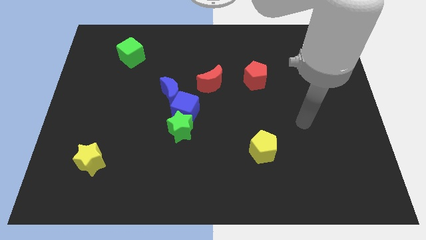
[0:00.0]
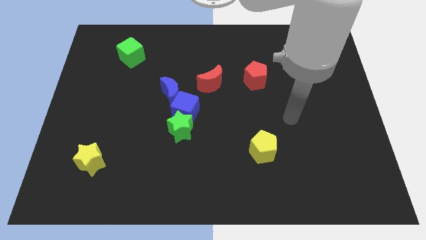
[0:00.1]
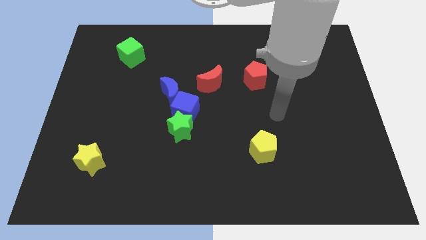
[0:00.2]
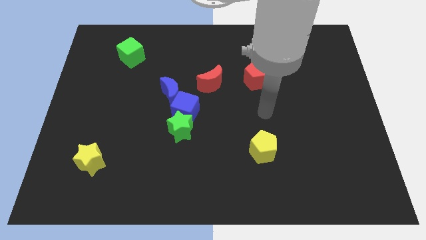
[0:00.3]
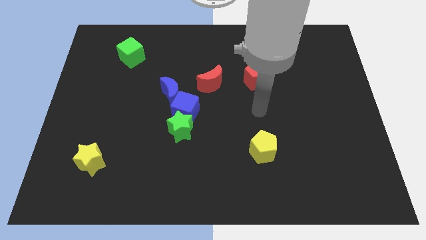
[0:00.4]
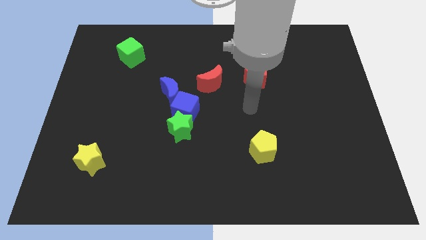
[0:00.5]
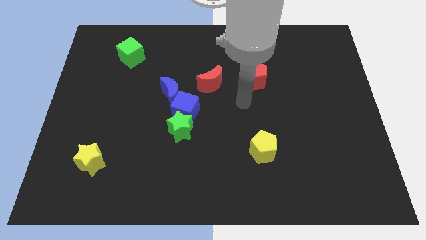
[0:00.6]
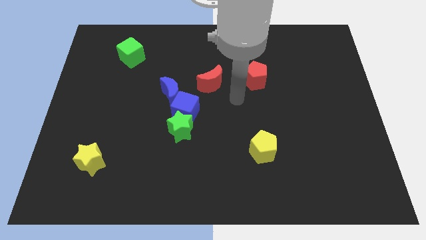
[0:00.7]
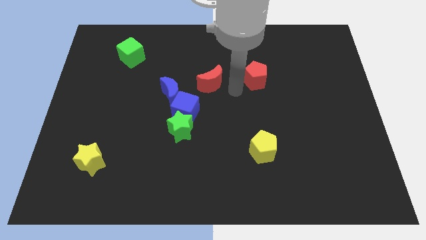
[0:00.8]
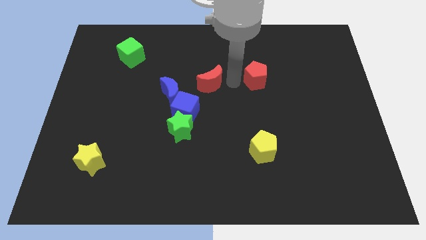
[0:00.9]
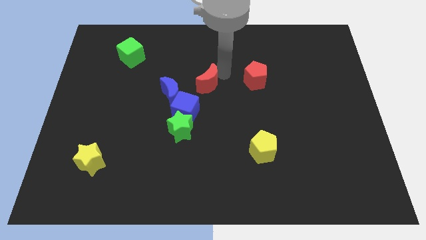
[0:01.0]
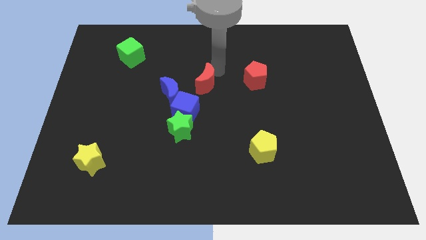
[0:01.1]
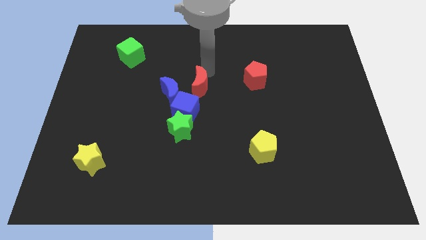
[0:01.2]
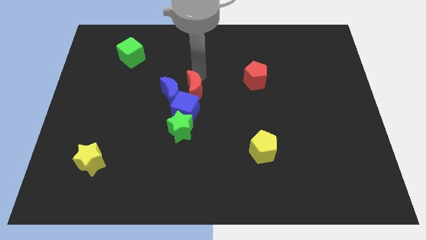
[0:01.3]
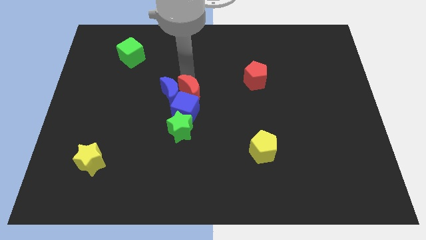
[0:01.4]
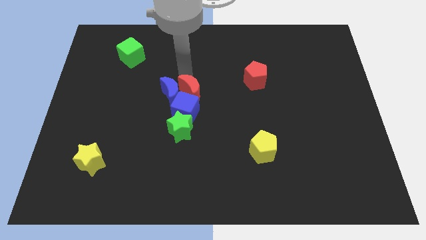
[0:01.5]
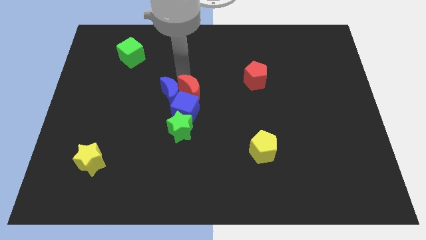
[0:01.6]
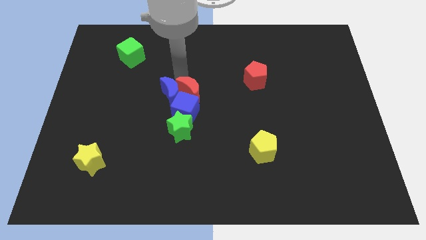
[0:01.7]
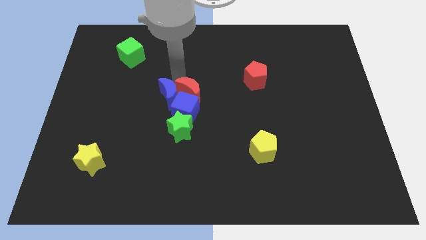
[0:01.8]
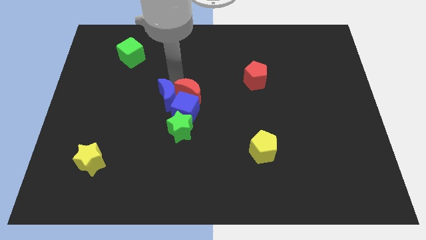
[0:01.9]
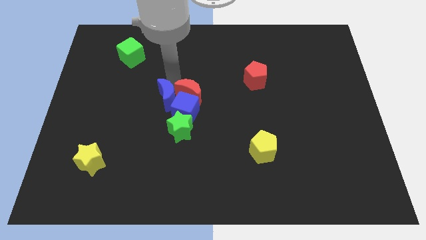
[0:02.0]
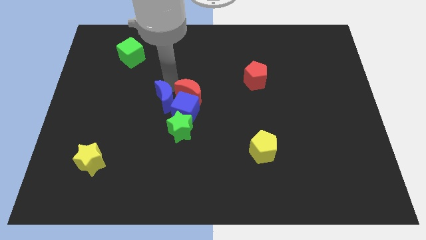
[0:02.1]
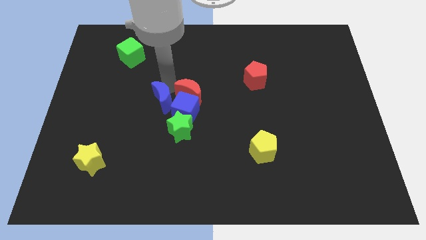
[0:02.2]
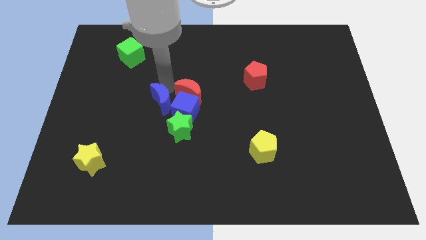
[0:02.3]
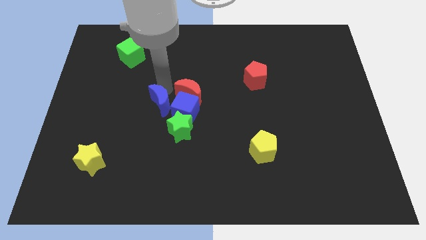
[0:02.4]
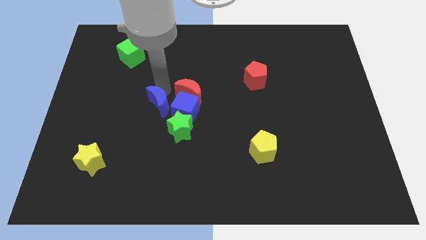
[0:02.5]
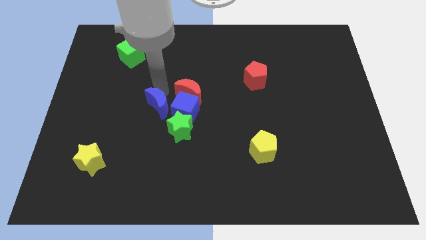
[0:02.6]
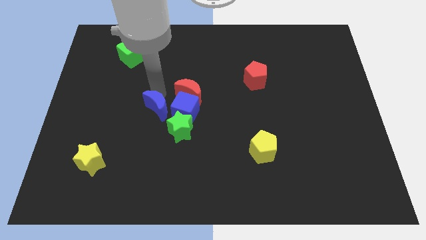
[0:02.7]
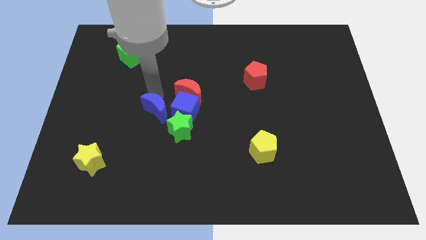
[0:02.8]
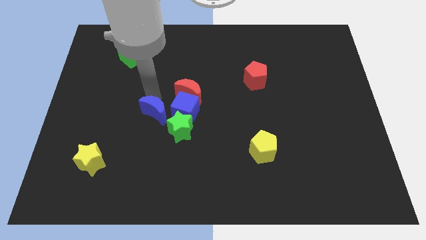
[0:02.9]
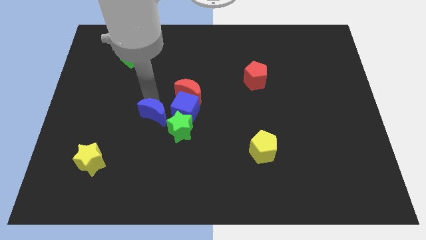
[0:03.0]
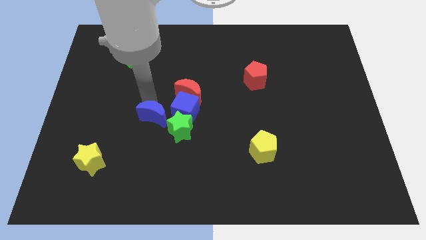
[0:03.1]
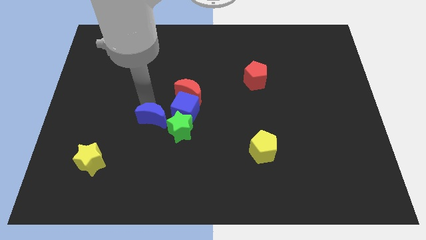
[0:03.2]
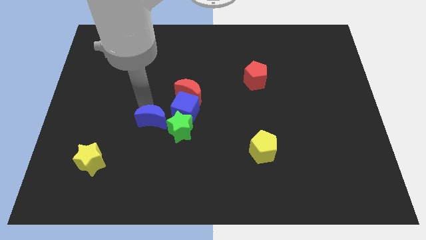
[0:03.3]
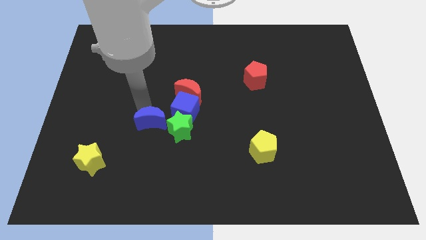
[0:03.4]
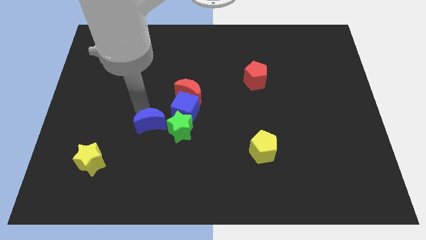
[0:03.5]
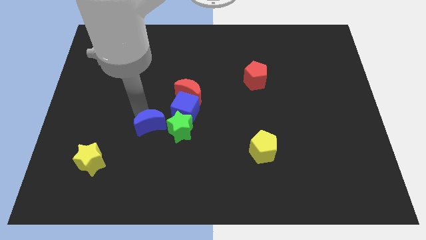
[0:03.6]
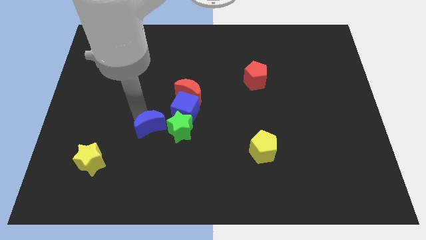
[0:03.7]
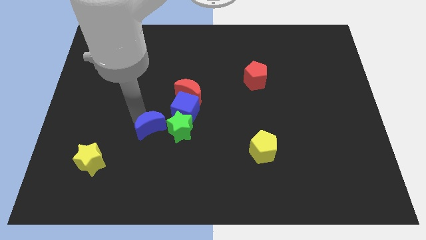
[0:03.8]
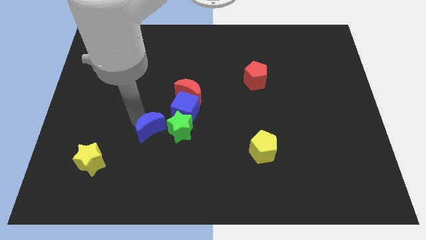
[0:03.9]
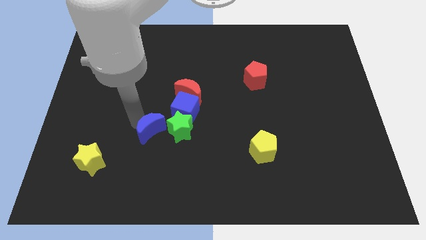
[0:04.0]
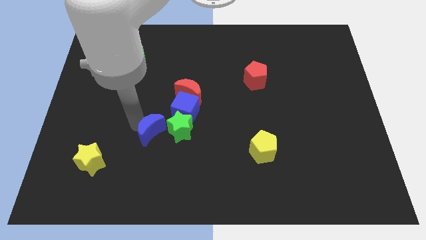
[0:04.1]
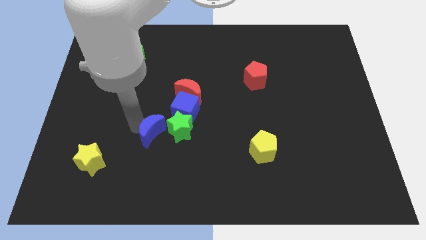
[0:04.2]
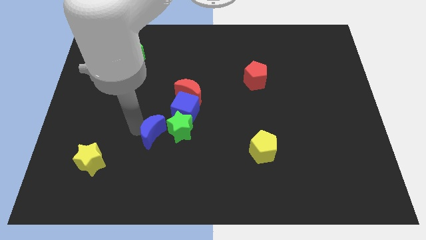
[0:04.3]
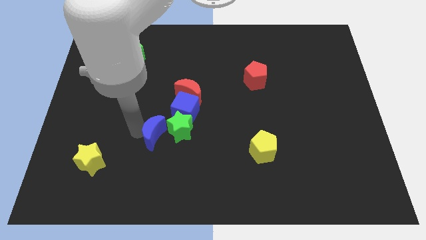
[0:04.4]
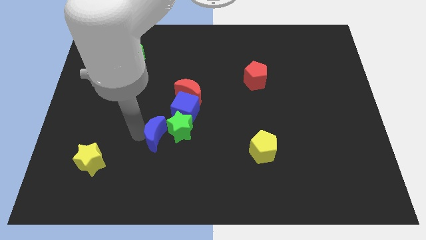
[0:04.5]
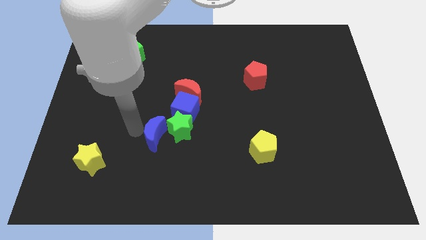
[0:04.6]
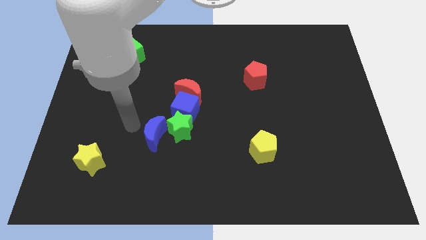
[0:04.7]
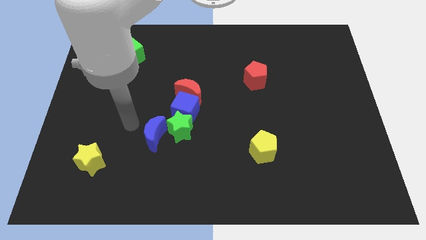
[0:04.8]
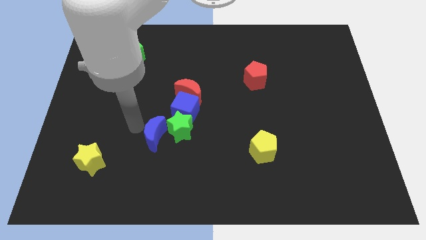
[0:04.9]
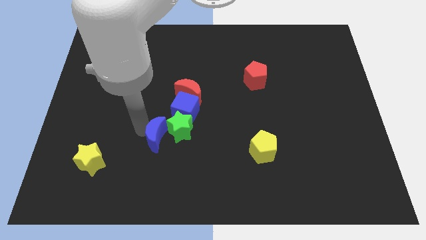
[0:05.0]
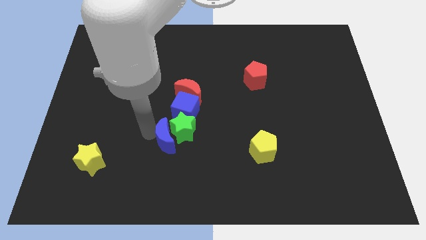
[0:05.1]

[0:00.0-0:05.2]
push the blue moon to the bottom side of the blue cube

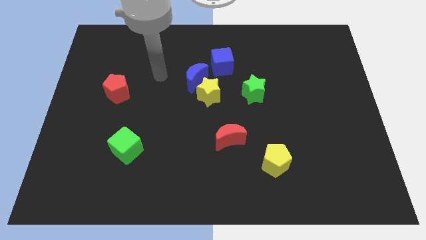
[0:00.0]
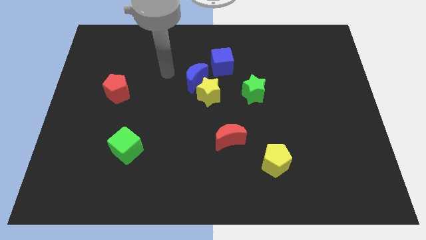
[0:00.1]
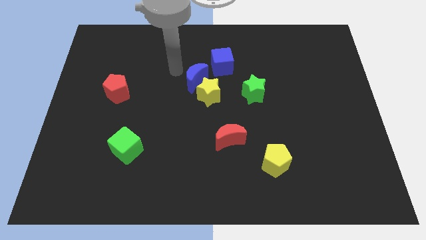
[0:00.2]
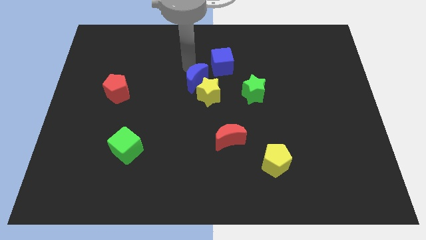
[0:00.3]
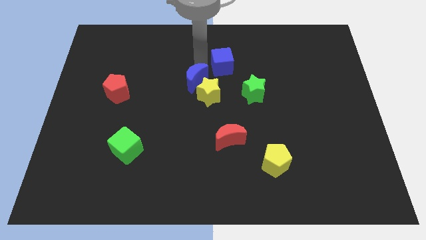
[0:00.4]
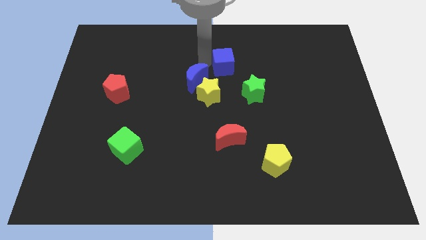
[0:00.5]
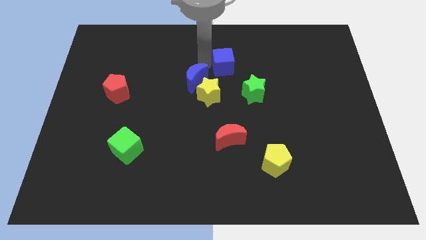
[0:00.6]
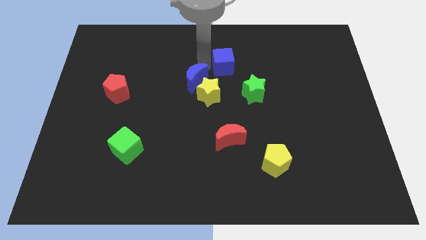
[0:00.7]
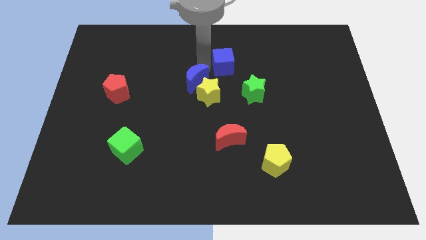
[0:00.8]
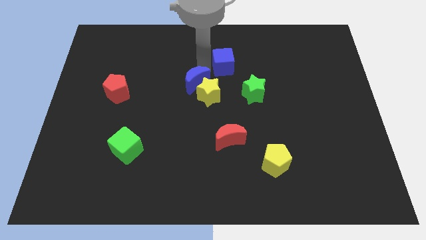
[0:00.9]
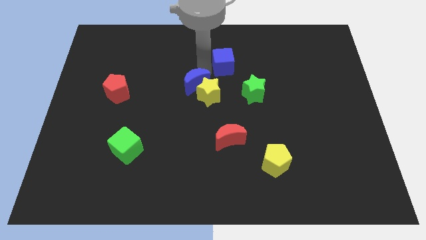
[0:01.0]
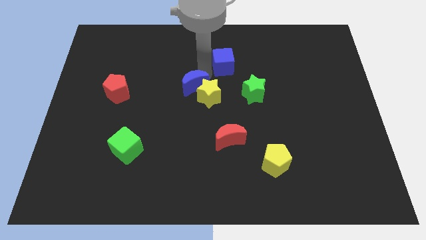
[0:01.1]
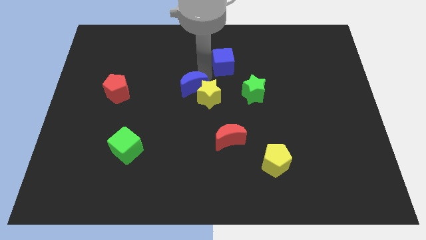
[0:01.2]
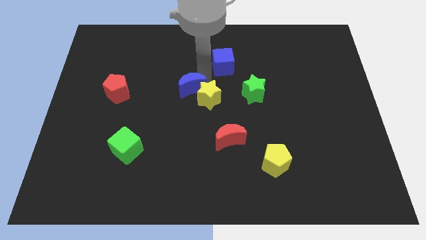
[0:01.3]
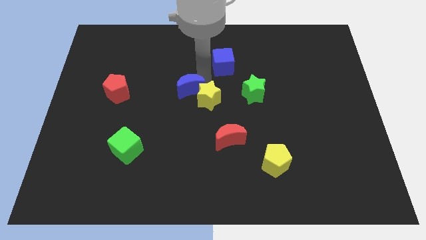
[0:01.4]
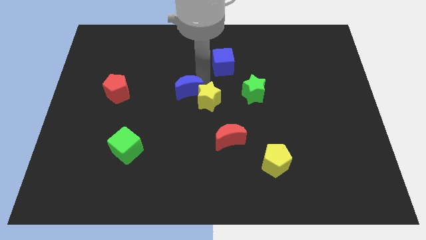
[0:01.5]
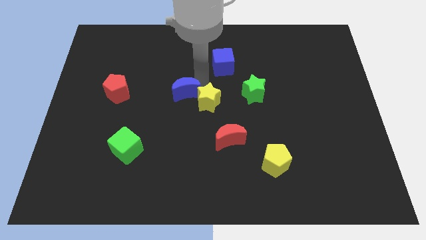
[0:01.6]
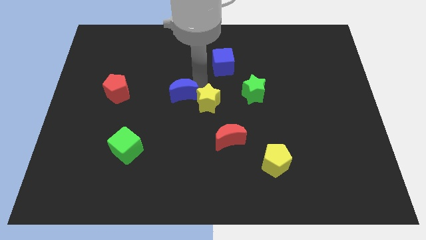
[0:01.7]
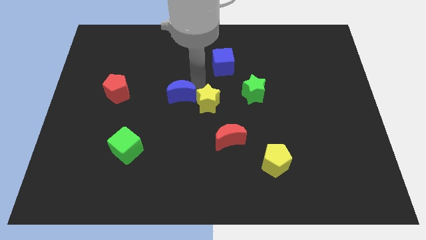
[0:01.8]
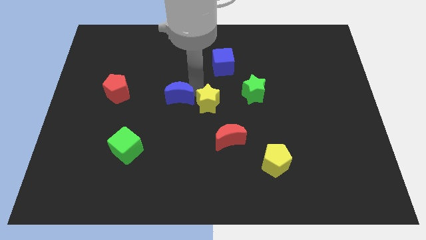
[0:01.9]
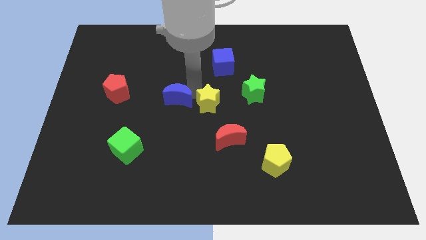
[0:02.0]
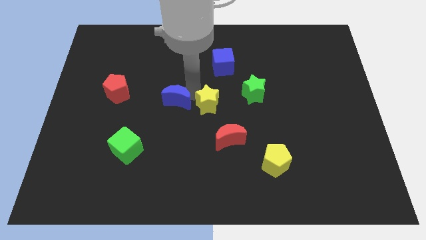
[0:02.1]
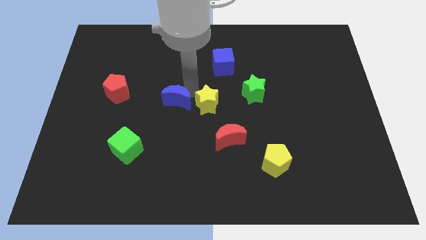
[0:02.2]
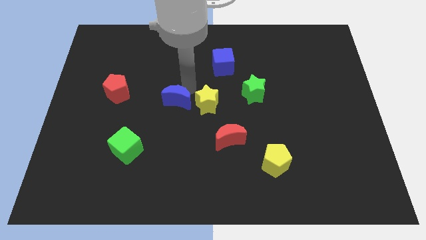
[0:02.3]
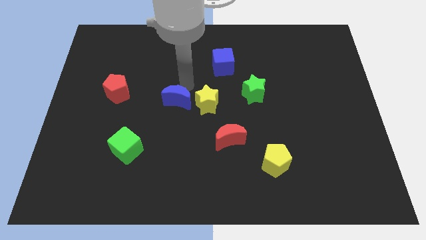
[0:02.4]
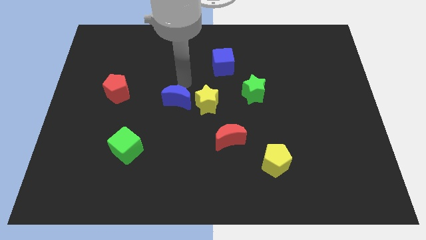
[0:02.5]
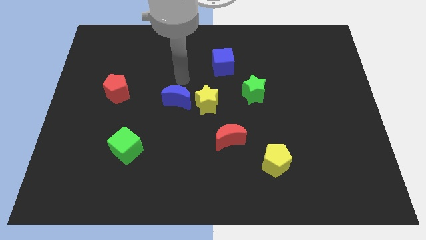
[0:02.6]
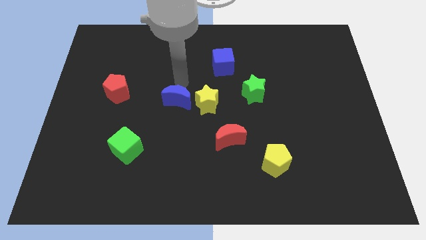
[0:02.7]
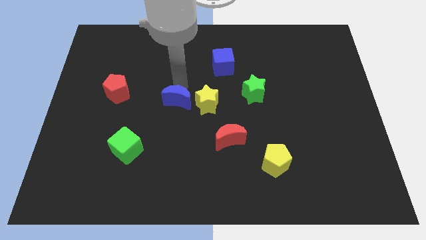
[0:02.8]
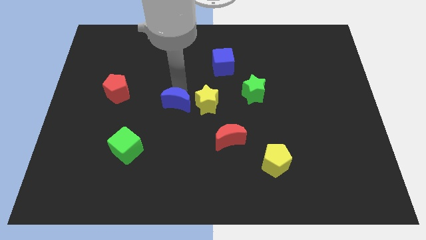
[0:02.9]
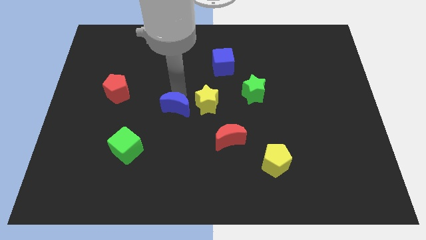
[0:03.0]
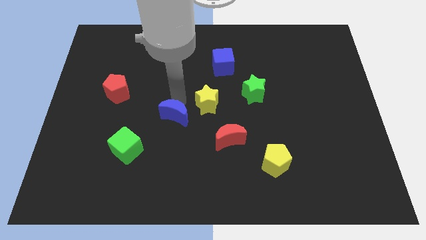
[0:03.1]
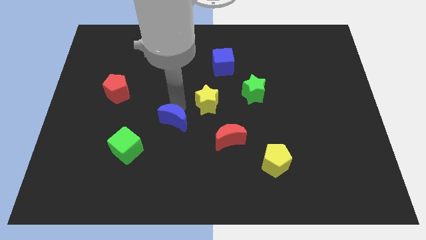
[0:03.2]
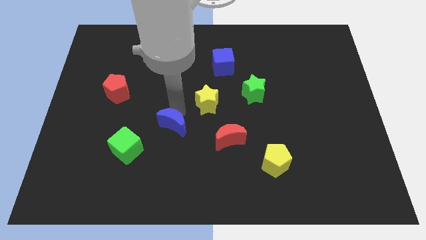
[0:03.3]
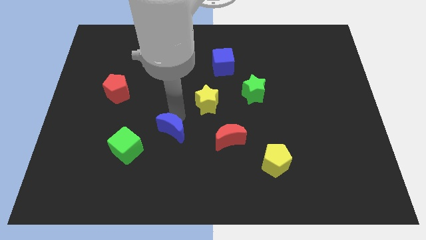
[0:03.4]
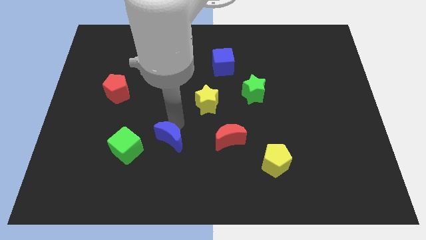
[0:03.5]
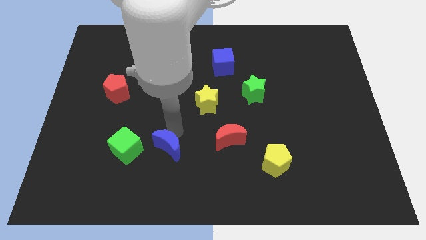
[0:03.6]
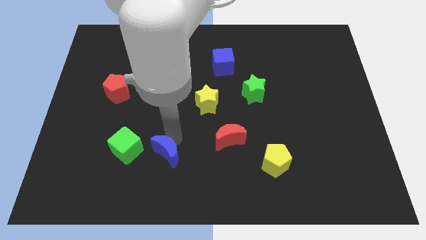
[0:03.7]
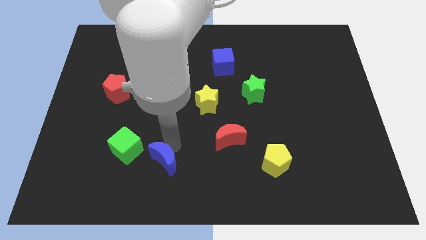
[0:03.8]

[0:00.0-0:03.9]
slide the blue moon diagonally down and to the right of the green cube
